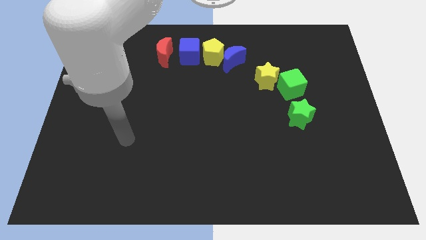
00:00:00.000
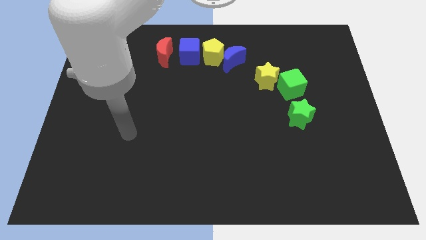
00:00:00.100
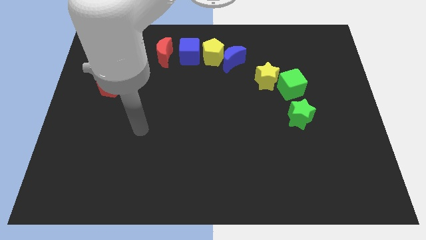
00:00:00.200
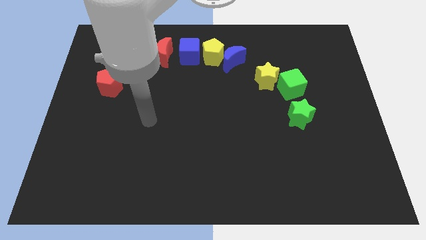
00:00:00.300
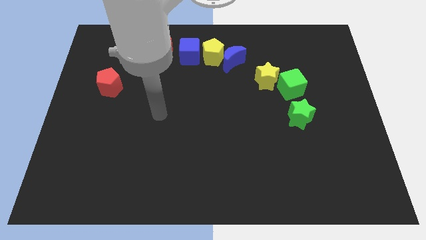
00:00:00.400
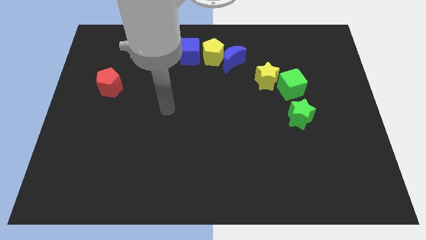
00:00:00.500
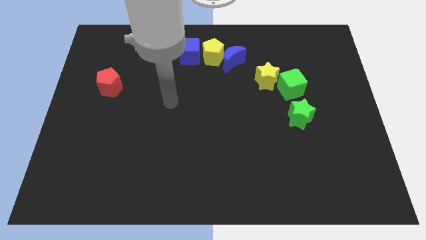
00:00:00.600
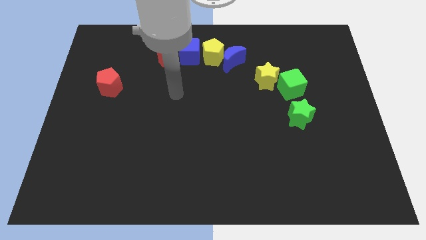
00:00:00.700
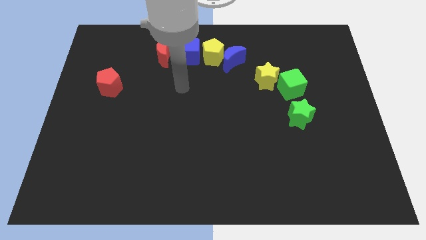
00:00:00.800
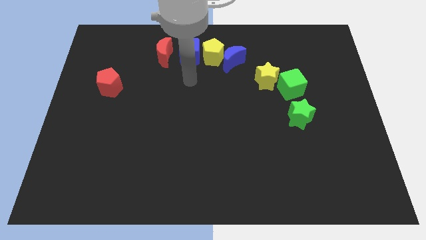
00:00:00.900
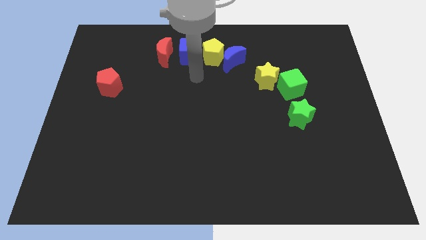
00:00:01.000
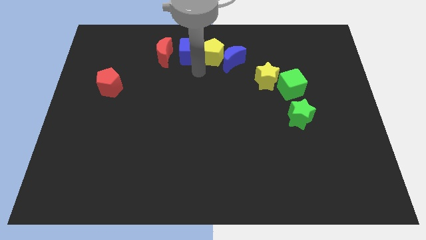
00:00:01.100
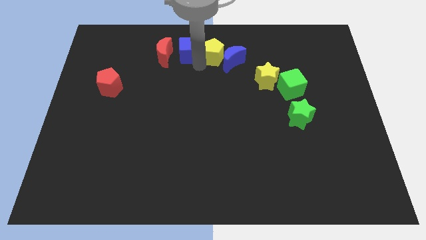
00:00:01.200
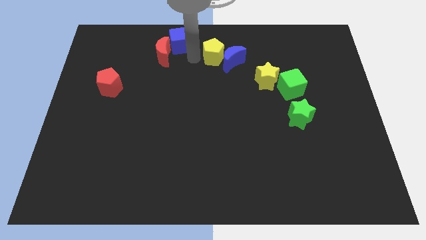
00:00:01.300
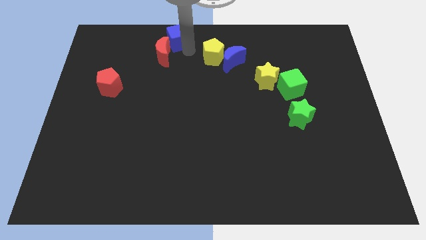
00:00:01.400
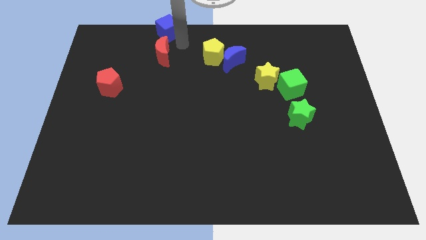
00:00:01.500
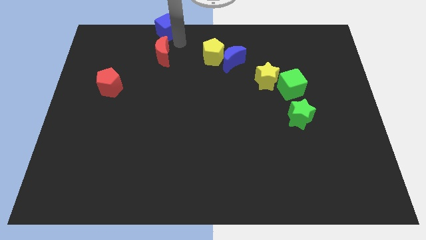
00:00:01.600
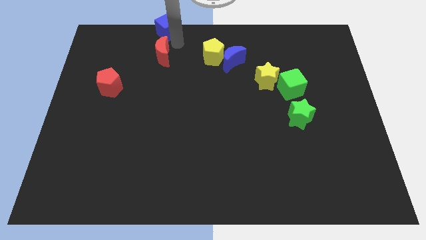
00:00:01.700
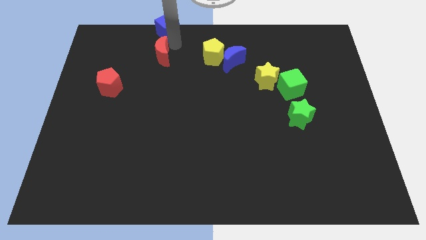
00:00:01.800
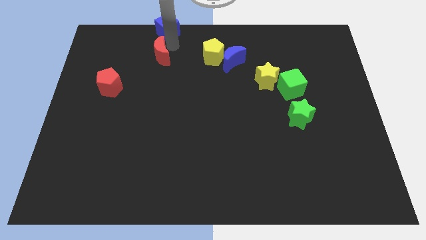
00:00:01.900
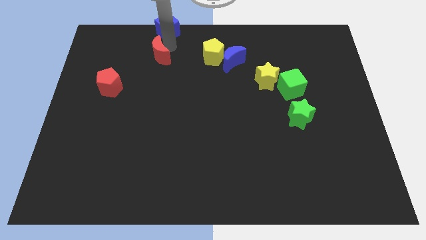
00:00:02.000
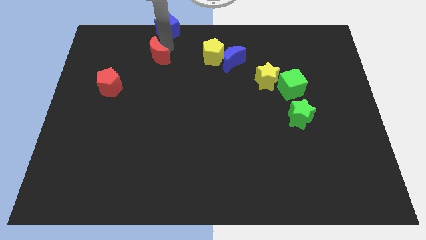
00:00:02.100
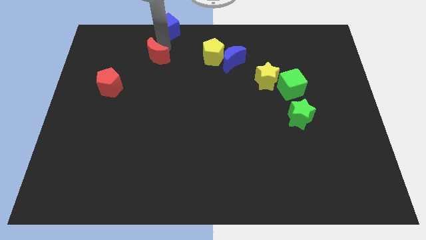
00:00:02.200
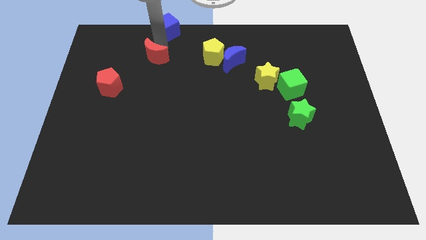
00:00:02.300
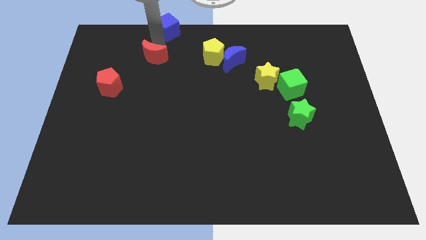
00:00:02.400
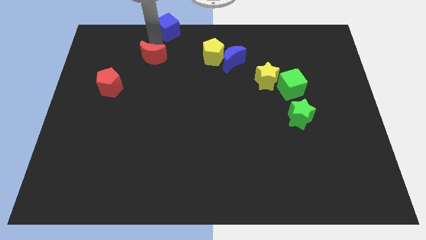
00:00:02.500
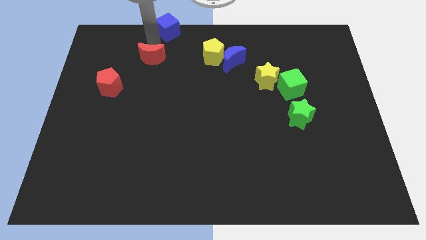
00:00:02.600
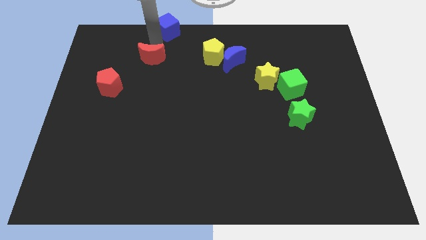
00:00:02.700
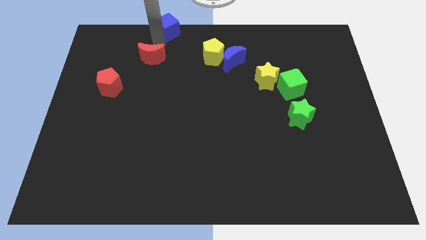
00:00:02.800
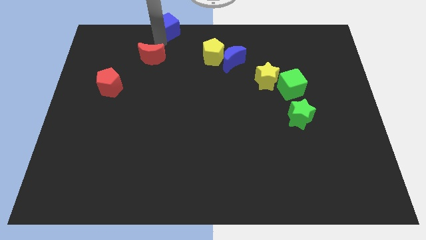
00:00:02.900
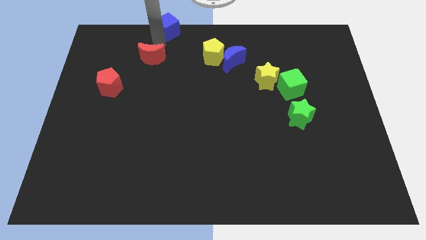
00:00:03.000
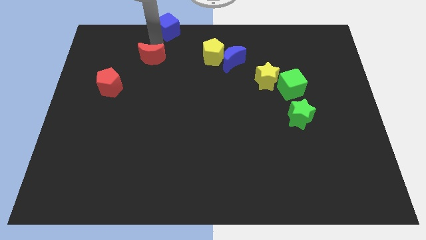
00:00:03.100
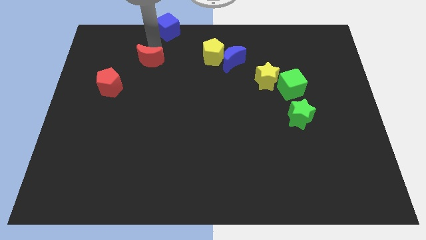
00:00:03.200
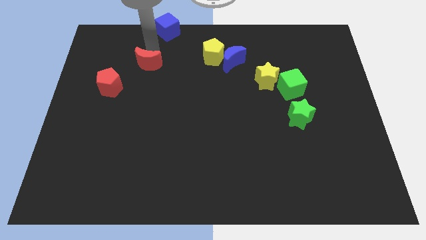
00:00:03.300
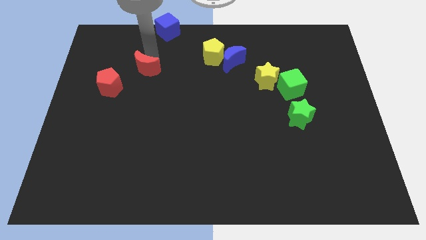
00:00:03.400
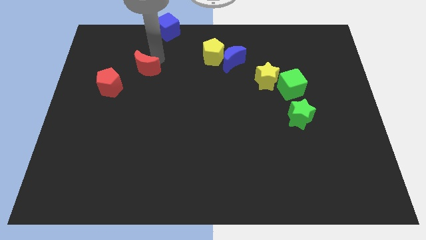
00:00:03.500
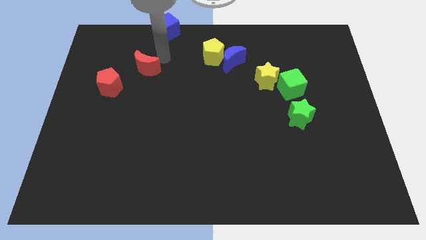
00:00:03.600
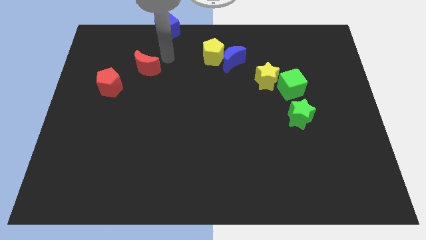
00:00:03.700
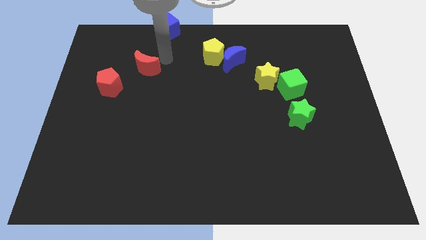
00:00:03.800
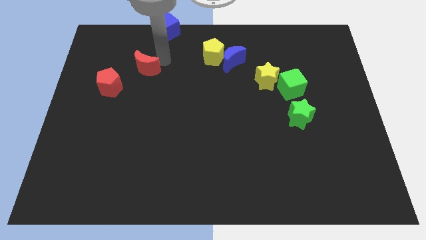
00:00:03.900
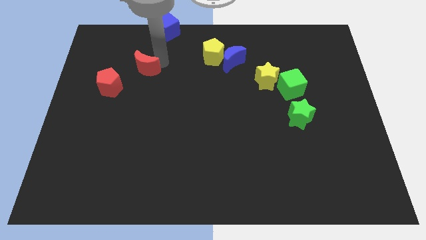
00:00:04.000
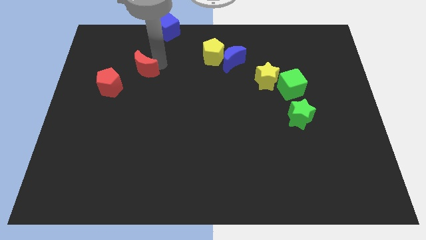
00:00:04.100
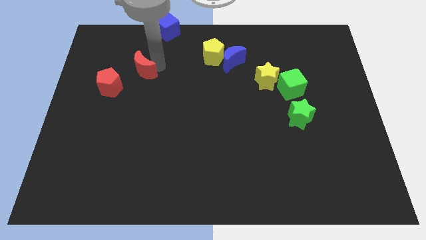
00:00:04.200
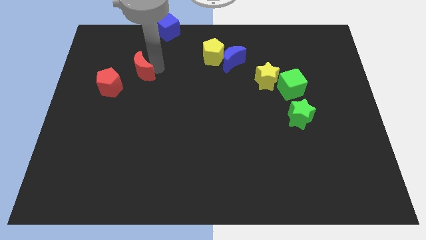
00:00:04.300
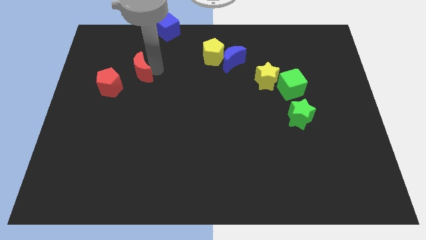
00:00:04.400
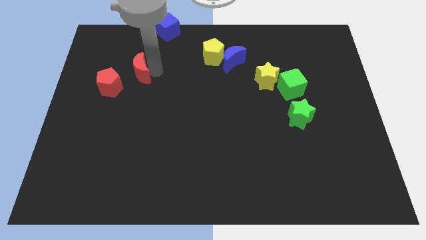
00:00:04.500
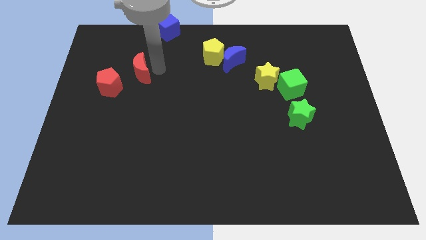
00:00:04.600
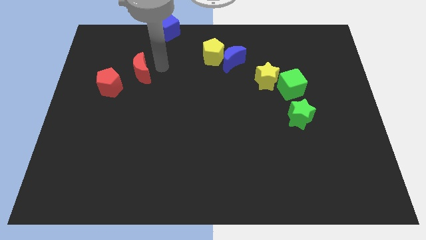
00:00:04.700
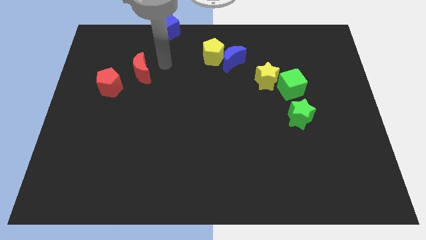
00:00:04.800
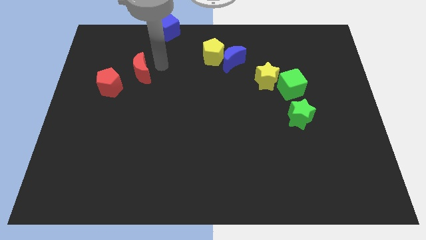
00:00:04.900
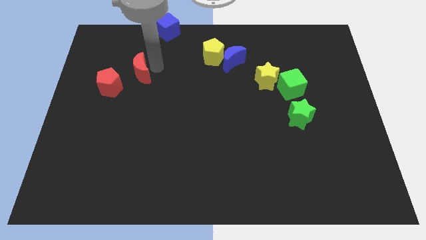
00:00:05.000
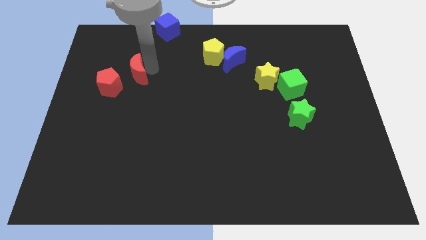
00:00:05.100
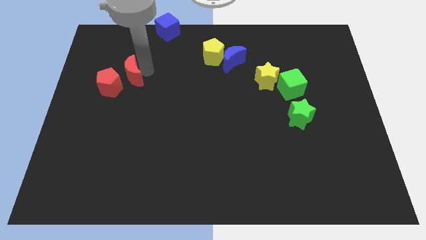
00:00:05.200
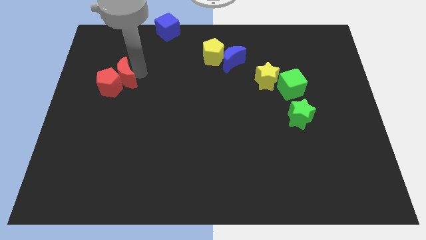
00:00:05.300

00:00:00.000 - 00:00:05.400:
slide the red moon to the red pentagon

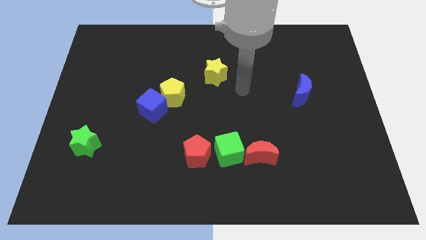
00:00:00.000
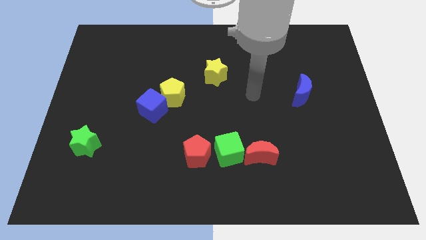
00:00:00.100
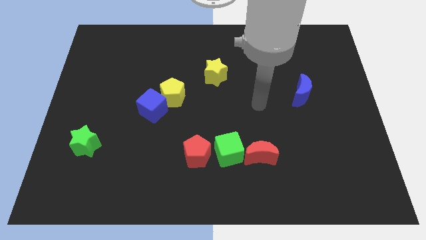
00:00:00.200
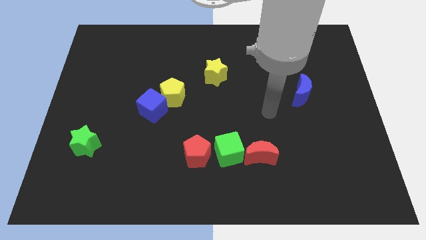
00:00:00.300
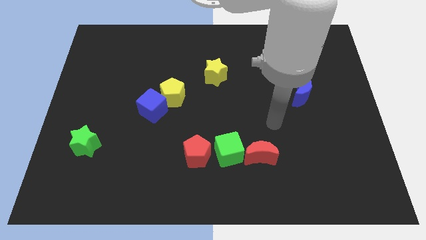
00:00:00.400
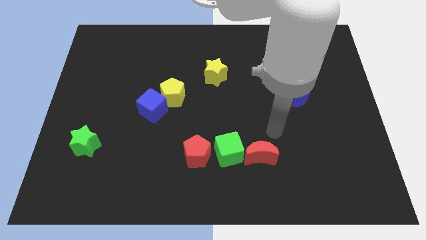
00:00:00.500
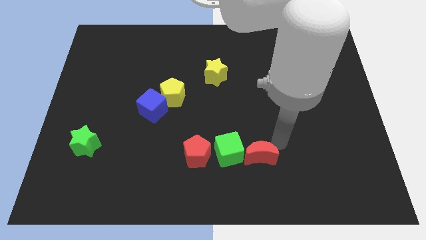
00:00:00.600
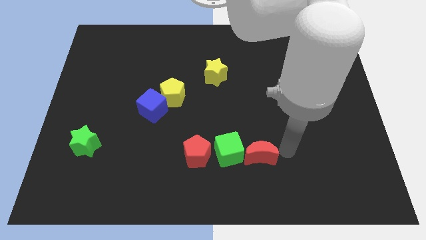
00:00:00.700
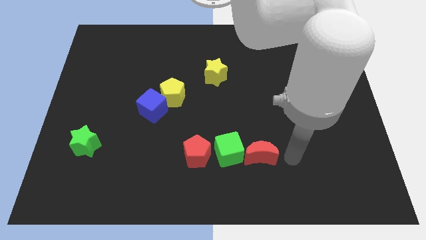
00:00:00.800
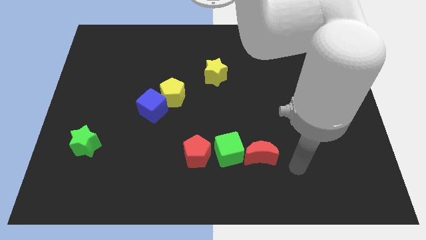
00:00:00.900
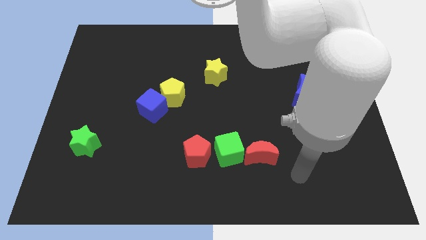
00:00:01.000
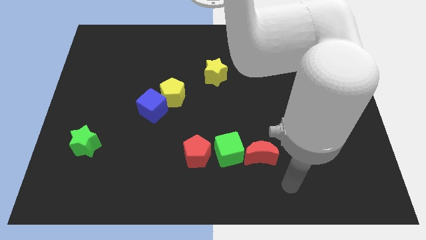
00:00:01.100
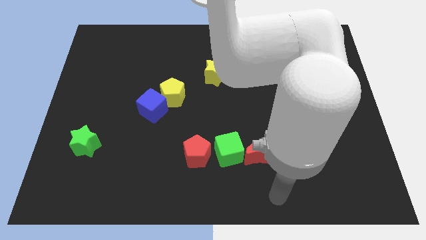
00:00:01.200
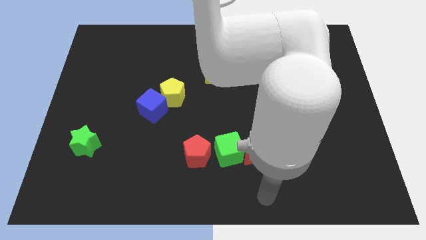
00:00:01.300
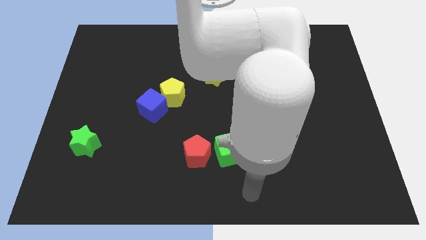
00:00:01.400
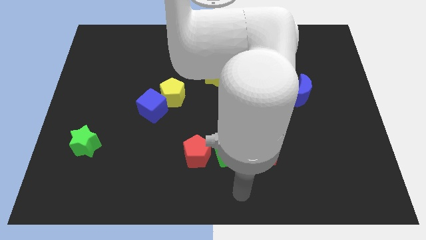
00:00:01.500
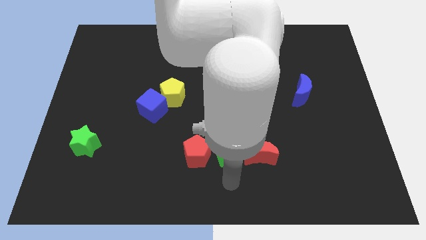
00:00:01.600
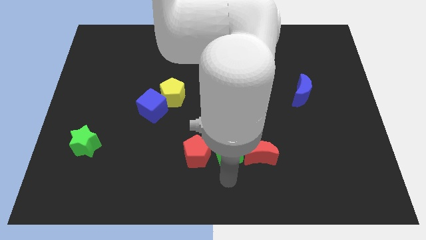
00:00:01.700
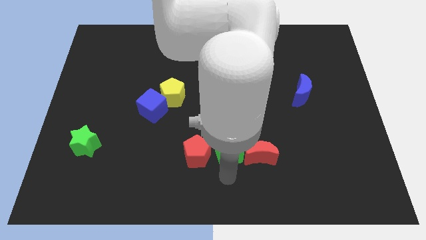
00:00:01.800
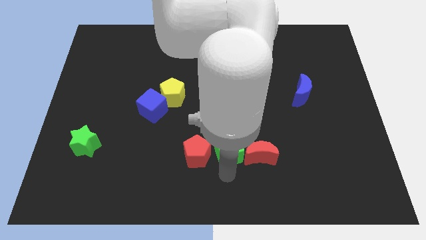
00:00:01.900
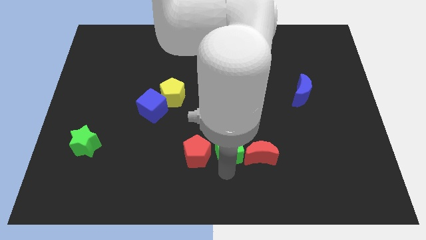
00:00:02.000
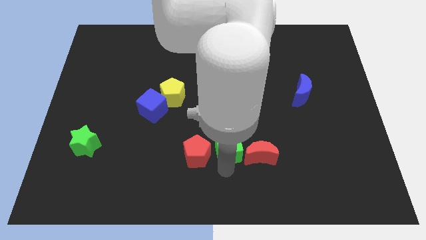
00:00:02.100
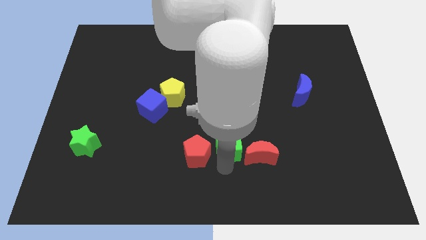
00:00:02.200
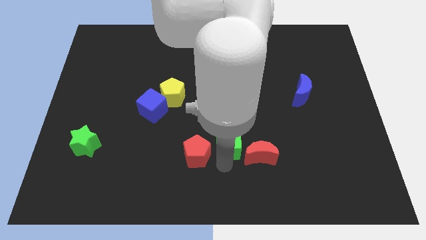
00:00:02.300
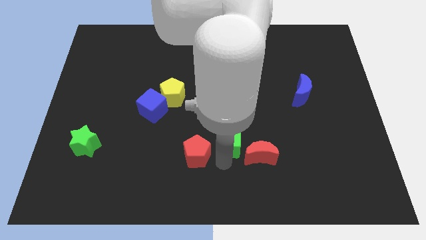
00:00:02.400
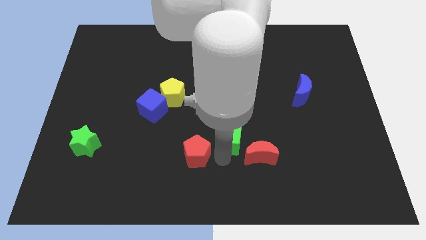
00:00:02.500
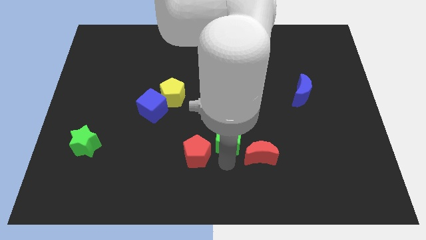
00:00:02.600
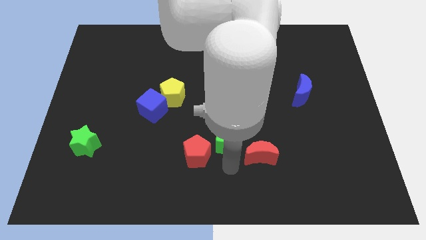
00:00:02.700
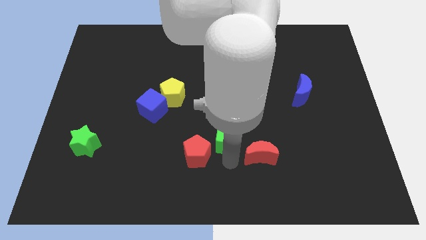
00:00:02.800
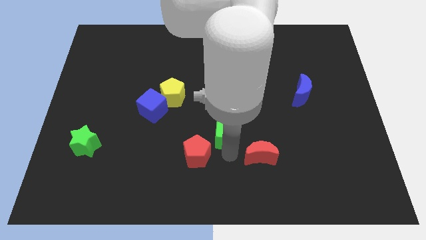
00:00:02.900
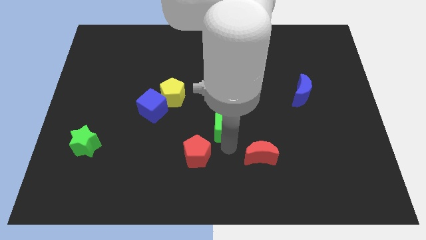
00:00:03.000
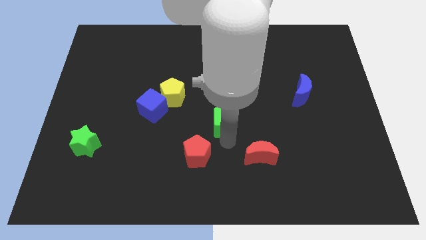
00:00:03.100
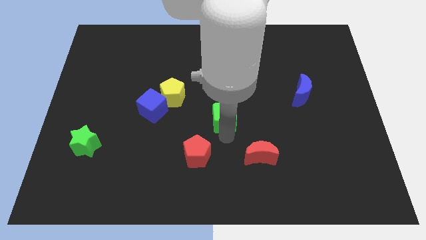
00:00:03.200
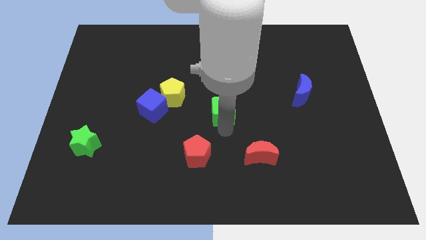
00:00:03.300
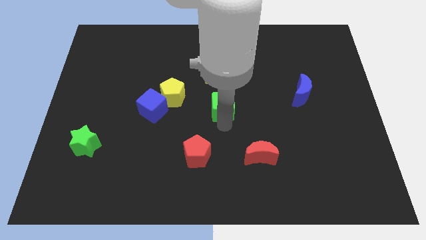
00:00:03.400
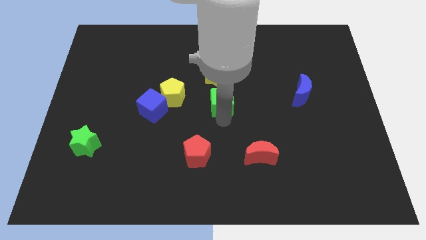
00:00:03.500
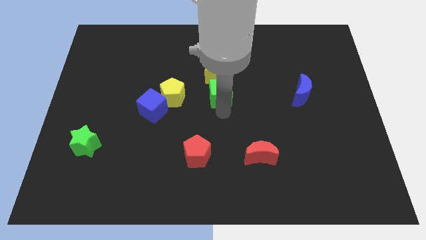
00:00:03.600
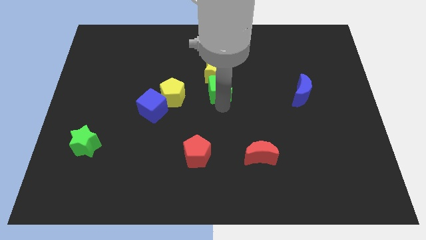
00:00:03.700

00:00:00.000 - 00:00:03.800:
put the green cube close to the yellow star
